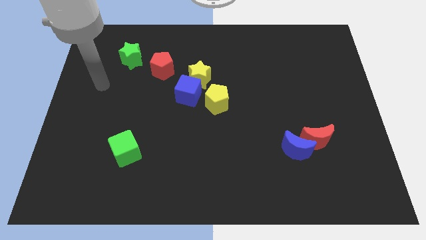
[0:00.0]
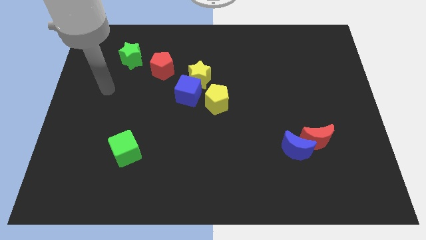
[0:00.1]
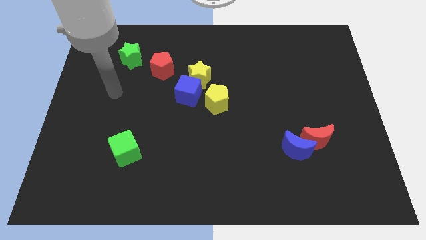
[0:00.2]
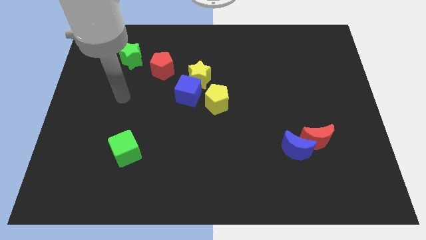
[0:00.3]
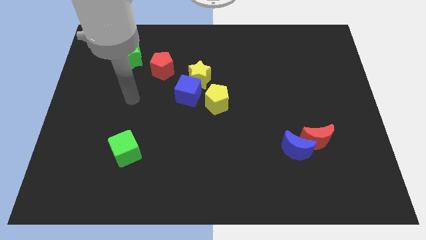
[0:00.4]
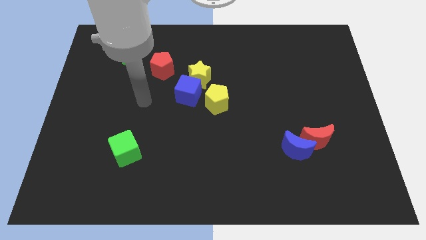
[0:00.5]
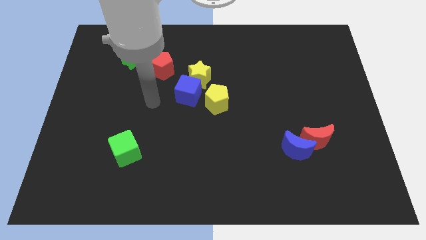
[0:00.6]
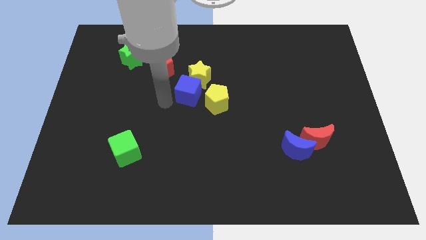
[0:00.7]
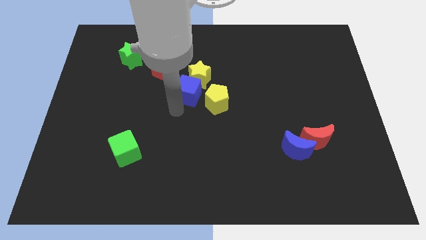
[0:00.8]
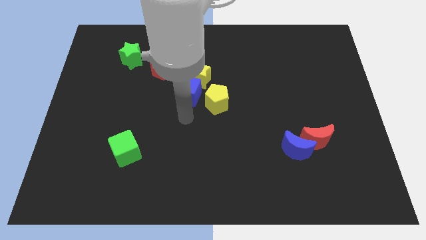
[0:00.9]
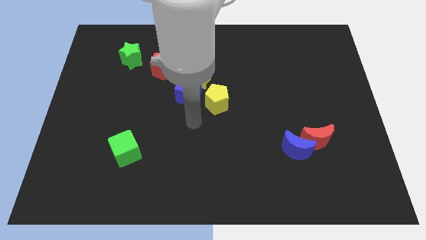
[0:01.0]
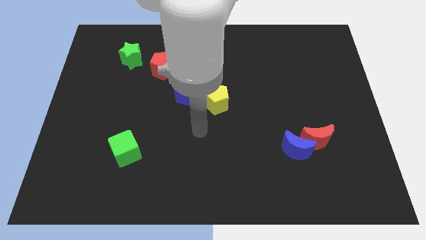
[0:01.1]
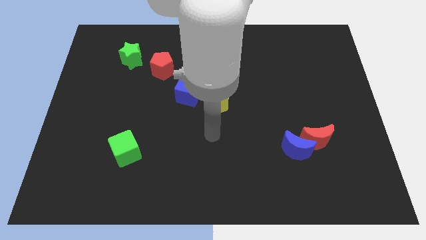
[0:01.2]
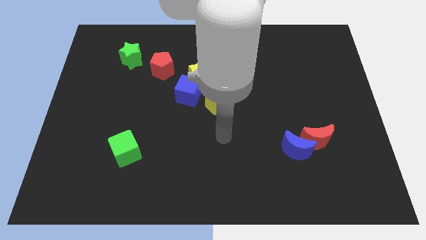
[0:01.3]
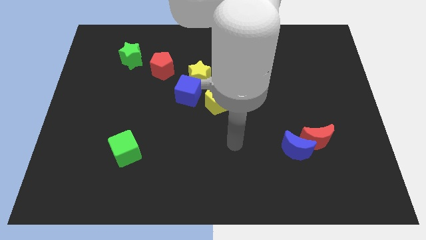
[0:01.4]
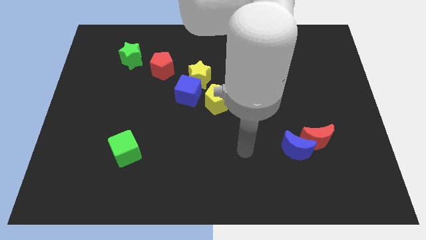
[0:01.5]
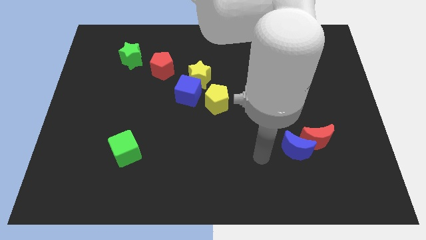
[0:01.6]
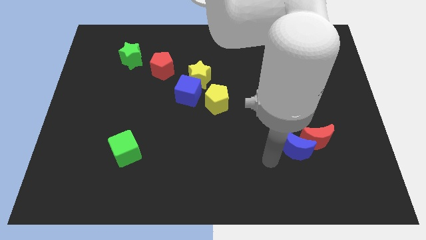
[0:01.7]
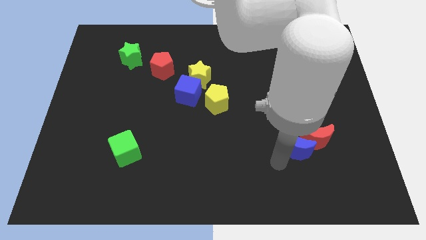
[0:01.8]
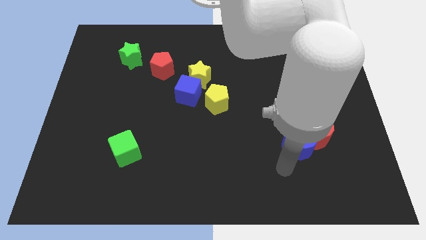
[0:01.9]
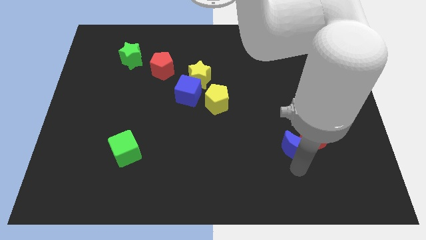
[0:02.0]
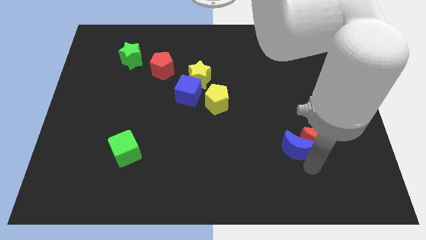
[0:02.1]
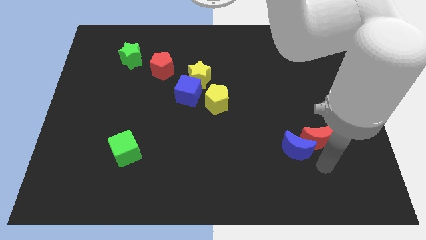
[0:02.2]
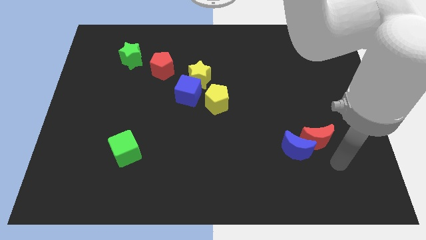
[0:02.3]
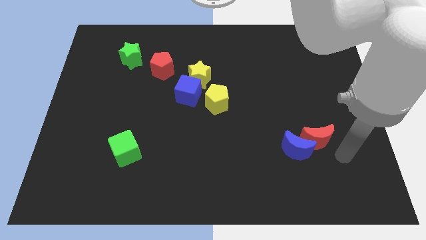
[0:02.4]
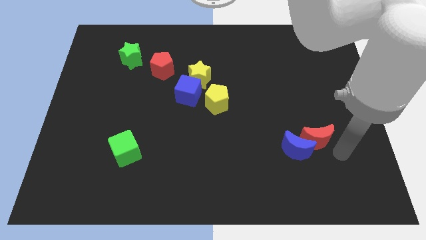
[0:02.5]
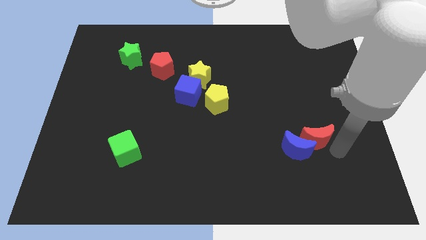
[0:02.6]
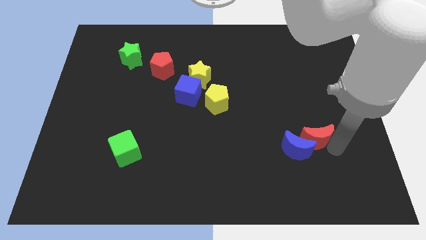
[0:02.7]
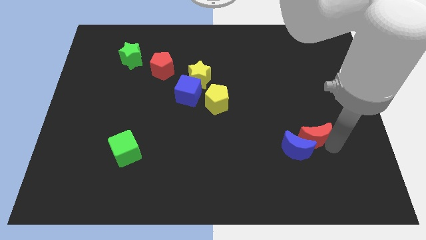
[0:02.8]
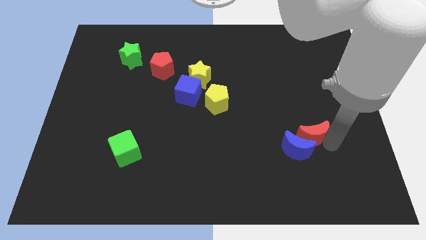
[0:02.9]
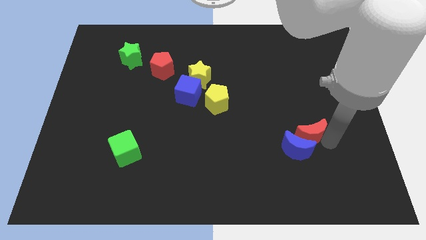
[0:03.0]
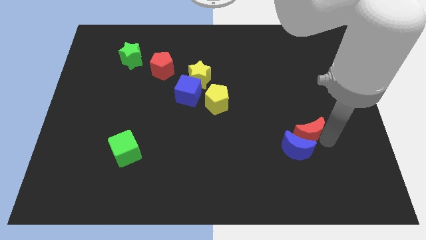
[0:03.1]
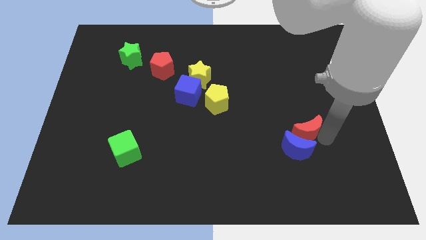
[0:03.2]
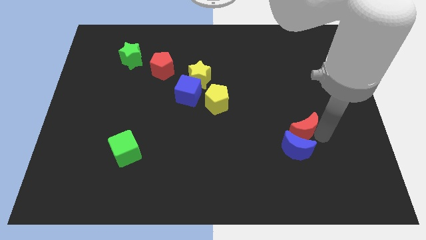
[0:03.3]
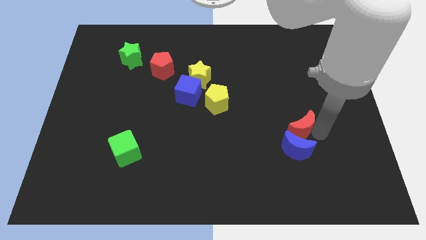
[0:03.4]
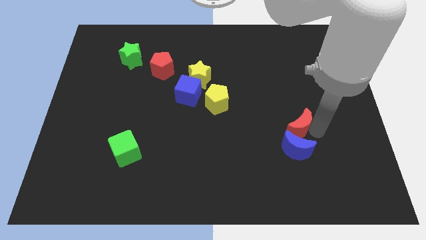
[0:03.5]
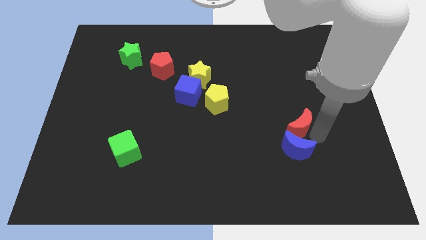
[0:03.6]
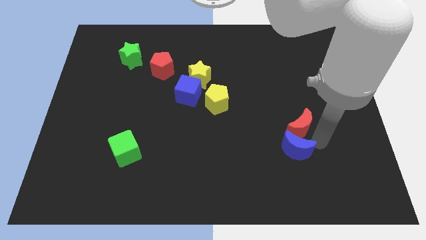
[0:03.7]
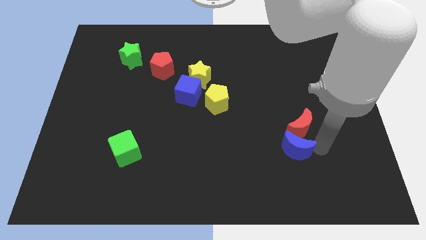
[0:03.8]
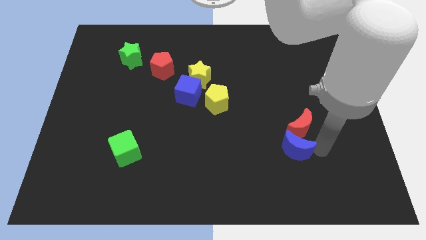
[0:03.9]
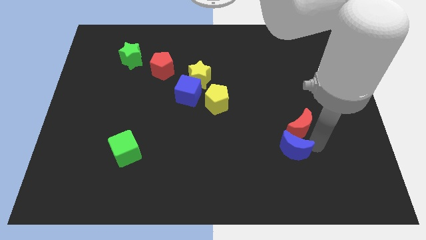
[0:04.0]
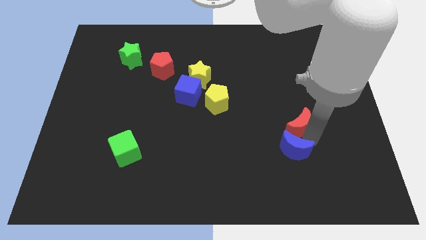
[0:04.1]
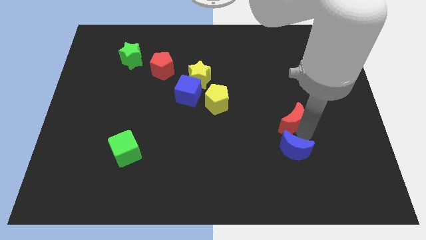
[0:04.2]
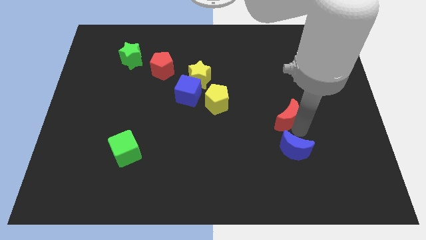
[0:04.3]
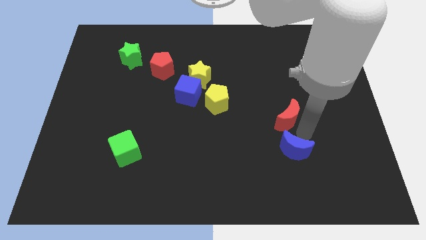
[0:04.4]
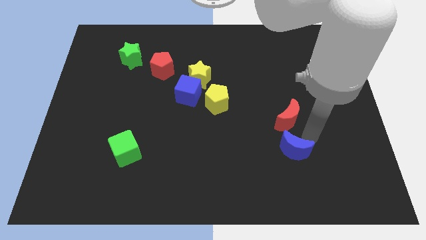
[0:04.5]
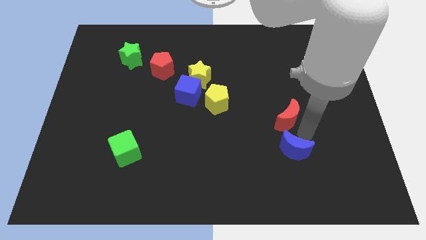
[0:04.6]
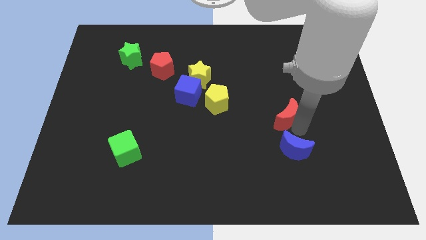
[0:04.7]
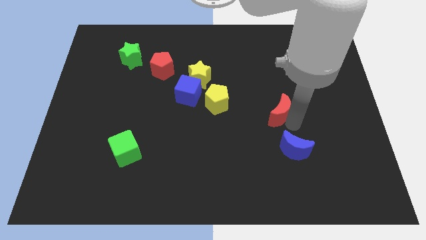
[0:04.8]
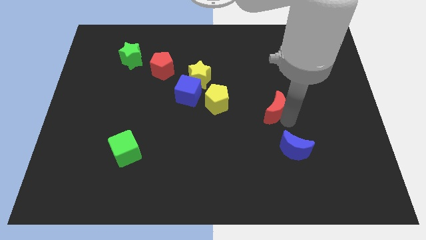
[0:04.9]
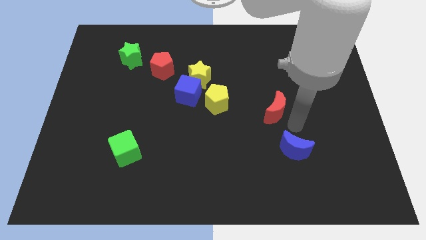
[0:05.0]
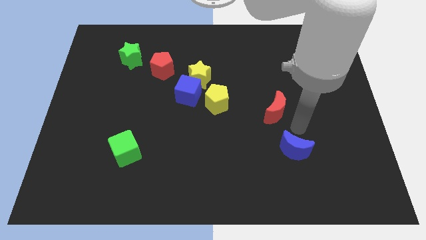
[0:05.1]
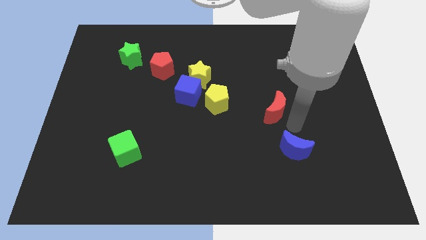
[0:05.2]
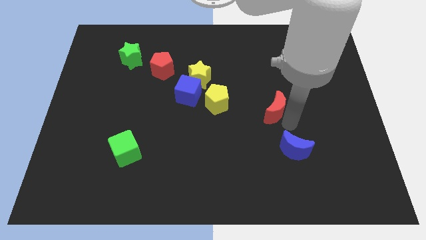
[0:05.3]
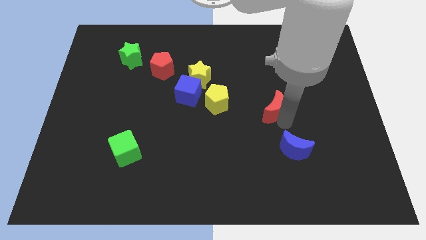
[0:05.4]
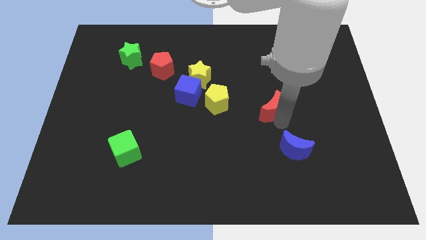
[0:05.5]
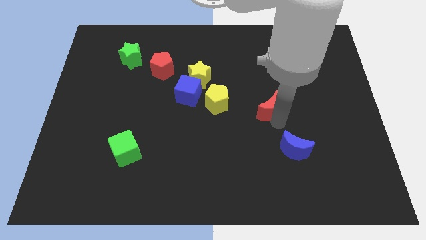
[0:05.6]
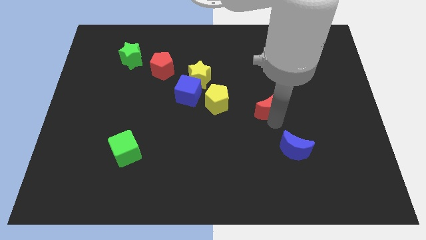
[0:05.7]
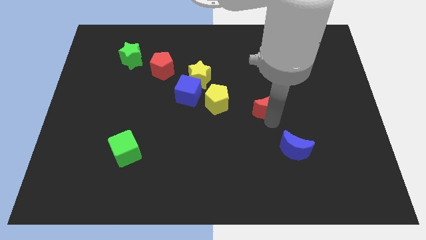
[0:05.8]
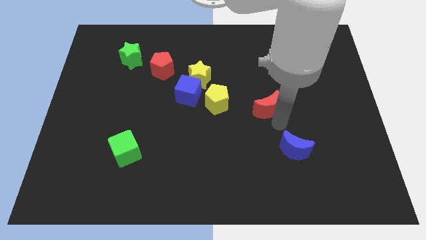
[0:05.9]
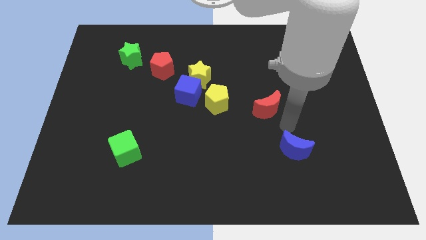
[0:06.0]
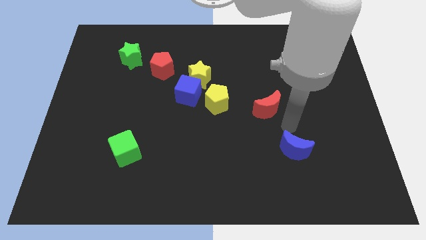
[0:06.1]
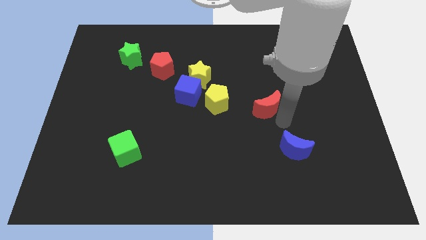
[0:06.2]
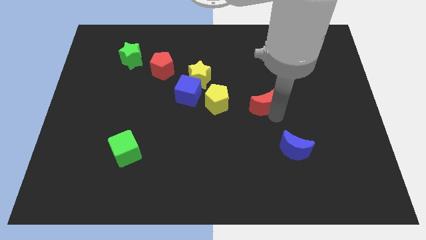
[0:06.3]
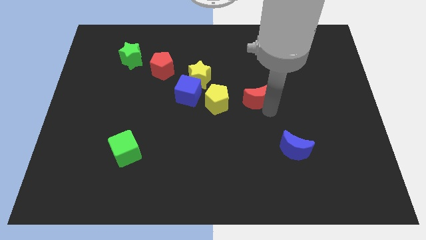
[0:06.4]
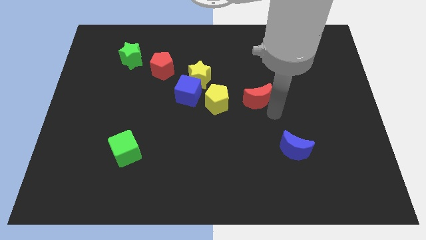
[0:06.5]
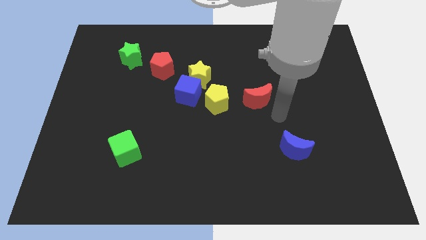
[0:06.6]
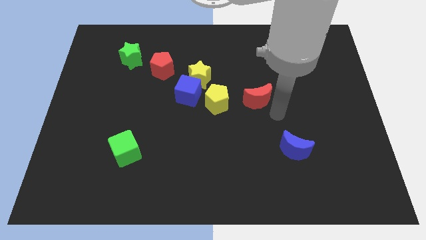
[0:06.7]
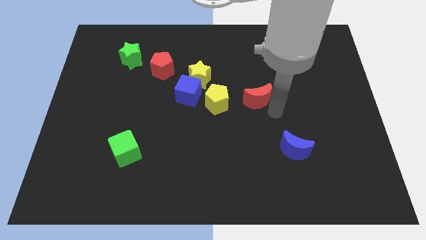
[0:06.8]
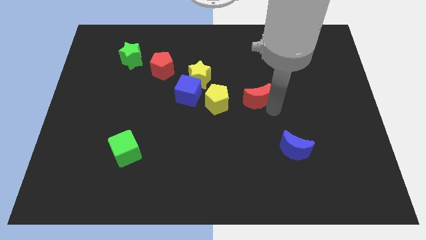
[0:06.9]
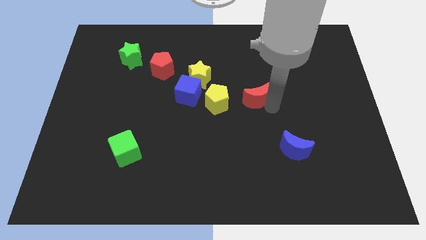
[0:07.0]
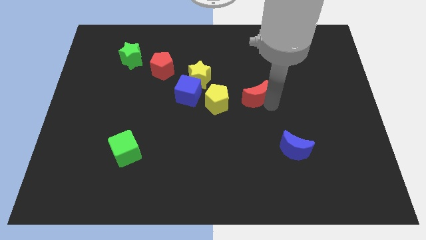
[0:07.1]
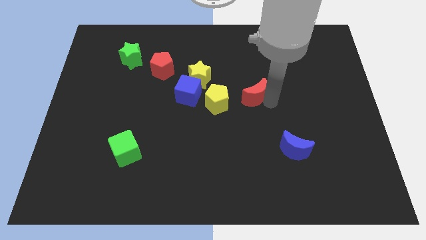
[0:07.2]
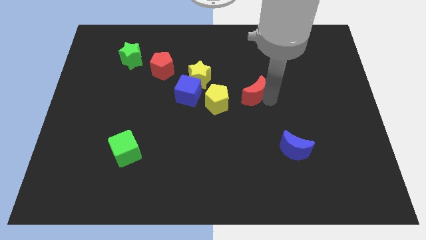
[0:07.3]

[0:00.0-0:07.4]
push the red moon to the top right side of the yellow pentagon
